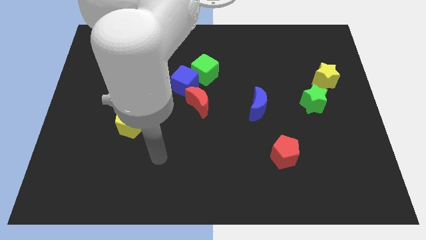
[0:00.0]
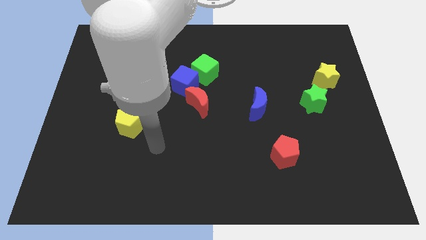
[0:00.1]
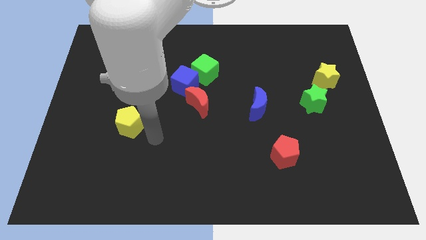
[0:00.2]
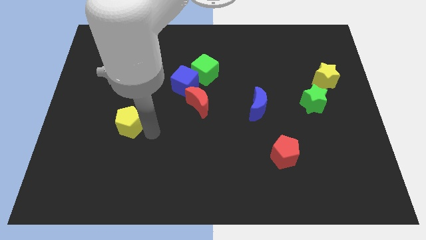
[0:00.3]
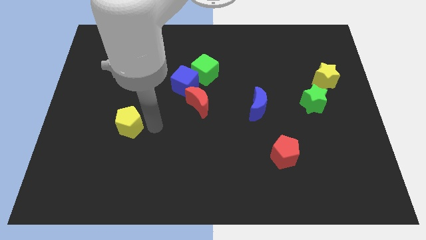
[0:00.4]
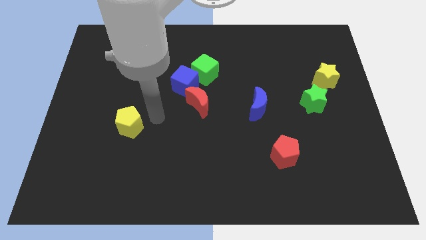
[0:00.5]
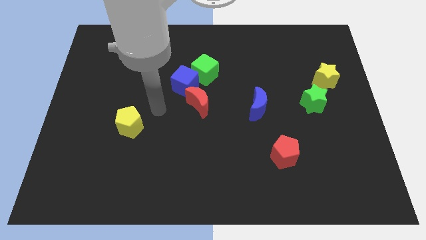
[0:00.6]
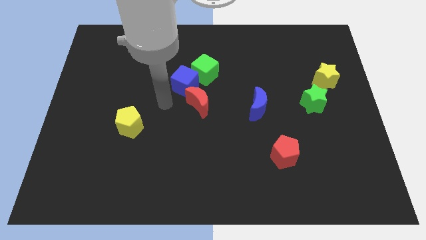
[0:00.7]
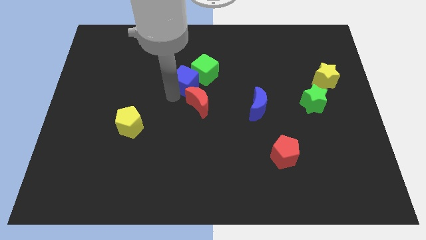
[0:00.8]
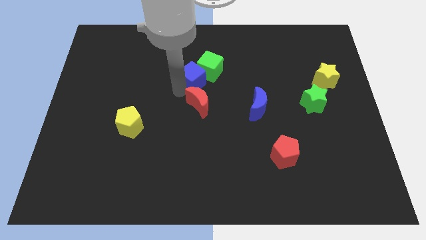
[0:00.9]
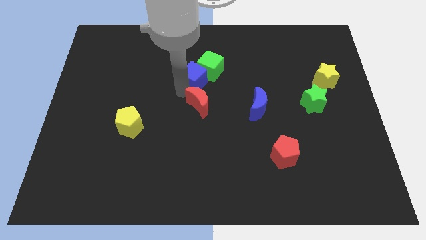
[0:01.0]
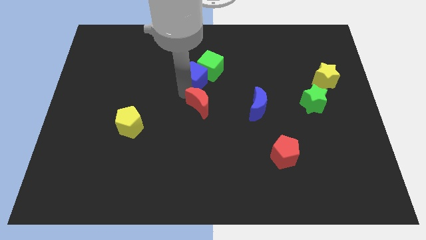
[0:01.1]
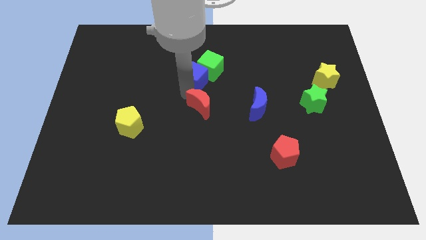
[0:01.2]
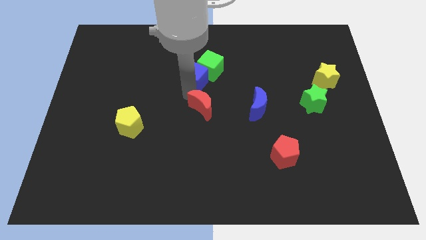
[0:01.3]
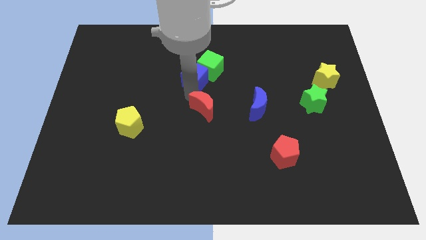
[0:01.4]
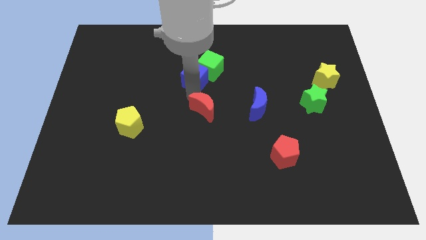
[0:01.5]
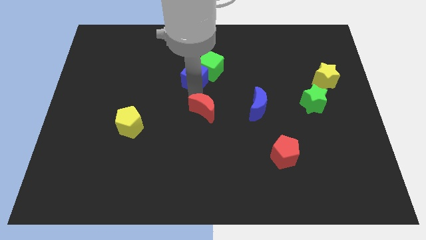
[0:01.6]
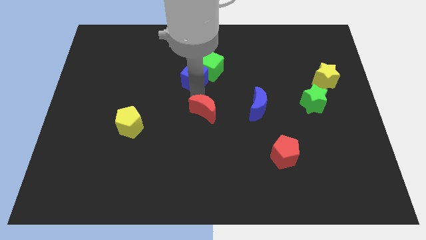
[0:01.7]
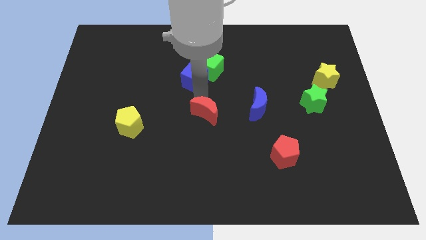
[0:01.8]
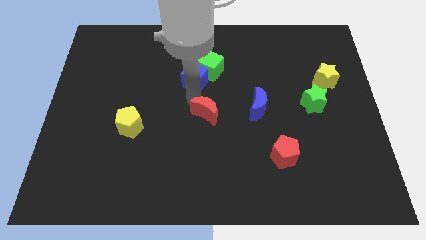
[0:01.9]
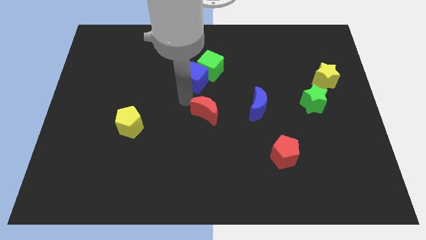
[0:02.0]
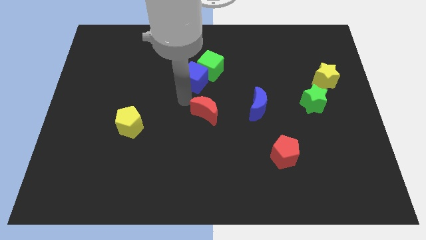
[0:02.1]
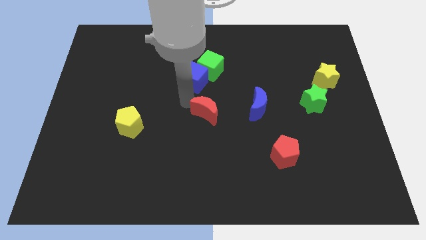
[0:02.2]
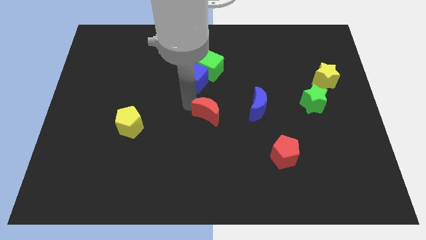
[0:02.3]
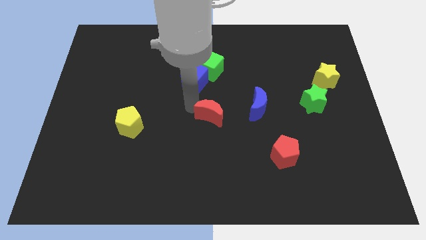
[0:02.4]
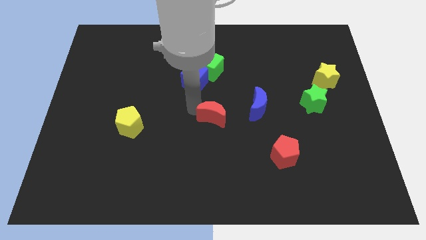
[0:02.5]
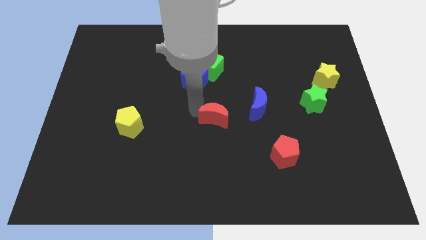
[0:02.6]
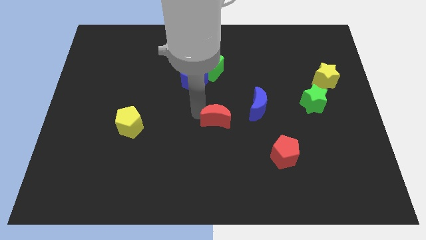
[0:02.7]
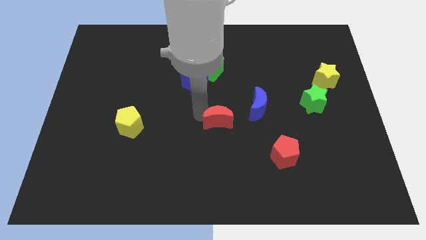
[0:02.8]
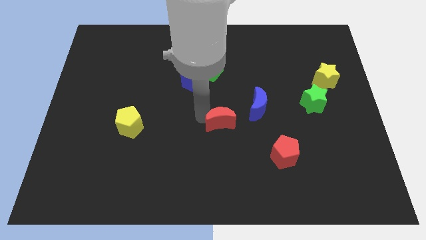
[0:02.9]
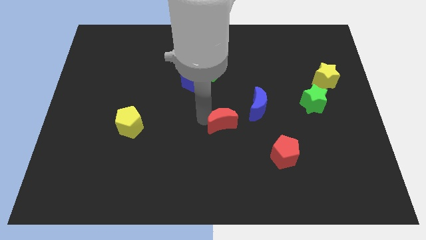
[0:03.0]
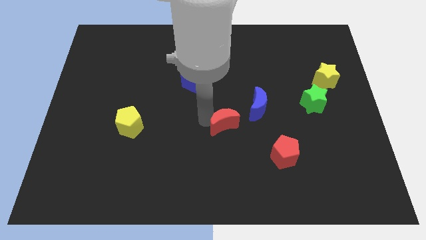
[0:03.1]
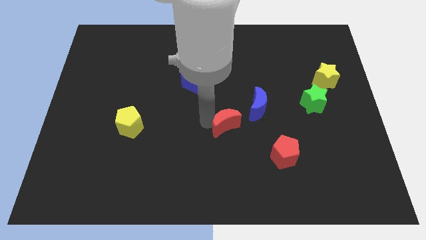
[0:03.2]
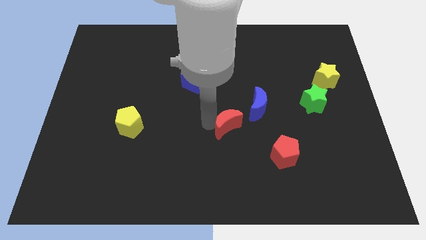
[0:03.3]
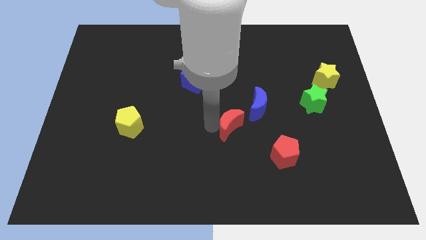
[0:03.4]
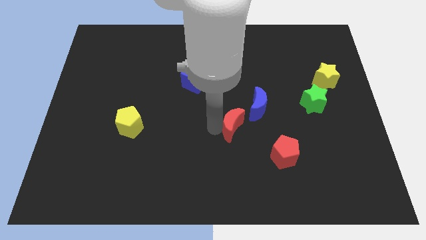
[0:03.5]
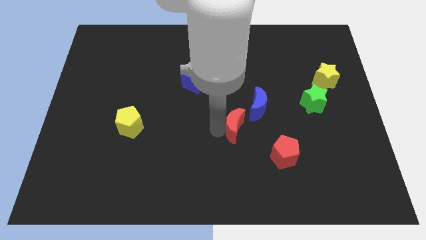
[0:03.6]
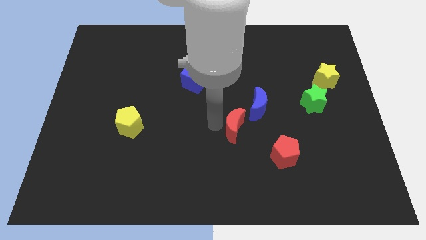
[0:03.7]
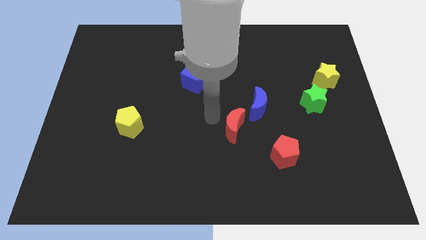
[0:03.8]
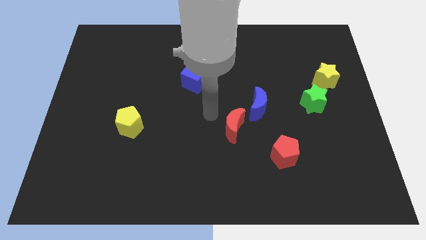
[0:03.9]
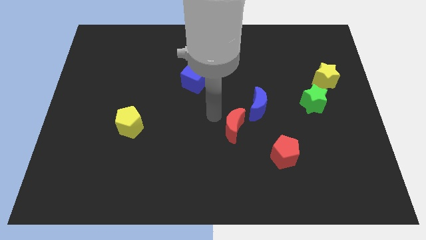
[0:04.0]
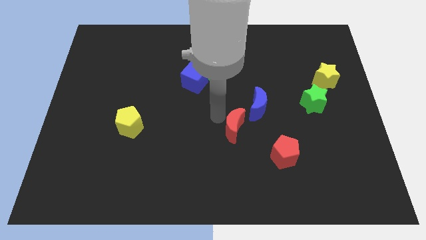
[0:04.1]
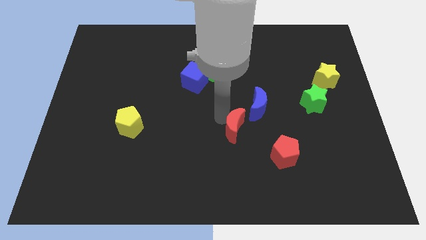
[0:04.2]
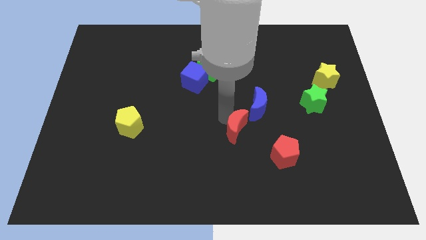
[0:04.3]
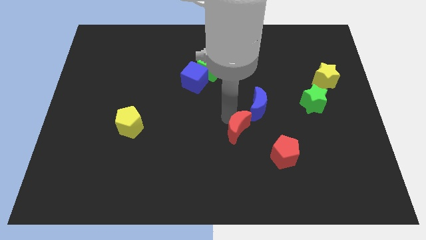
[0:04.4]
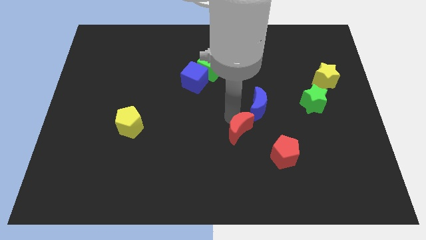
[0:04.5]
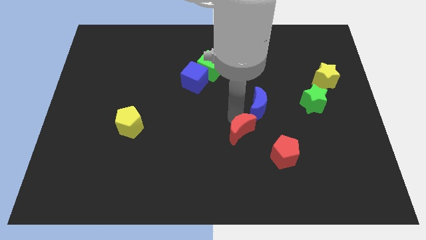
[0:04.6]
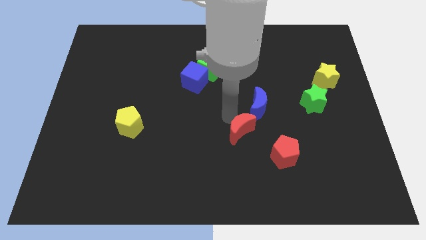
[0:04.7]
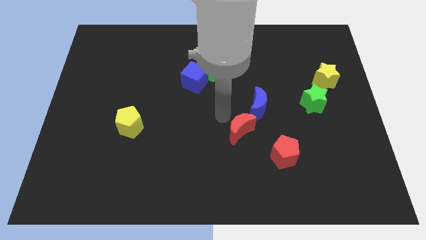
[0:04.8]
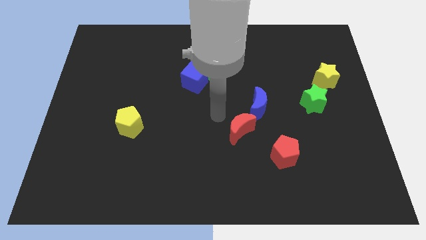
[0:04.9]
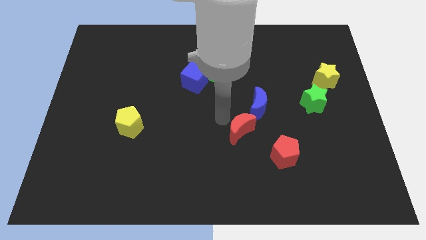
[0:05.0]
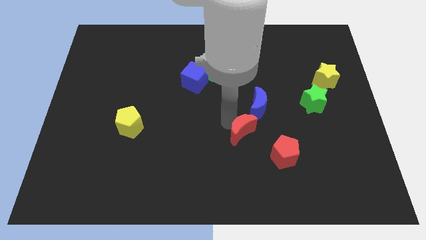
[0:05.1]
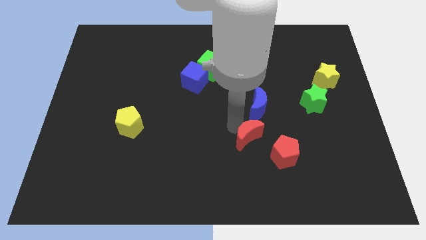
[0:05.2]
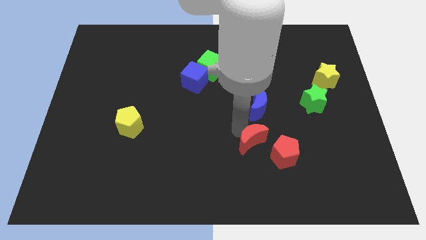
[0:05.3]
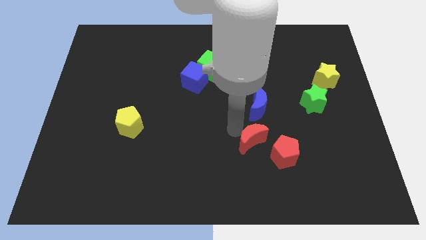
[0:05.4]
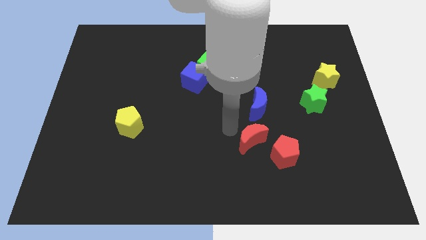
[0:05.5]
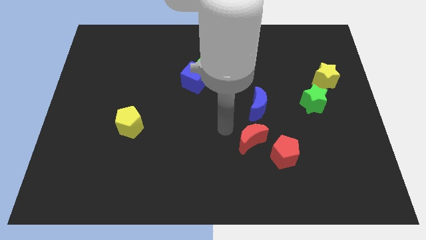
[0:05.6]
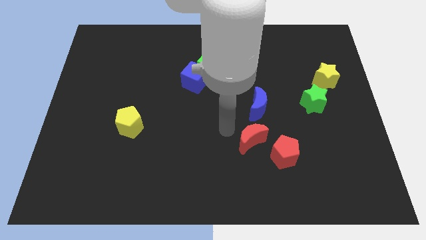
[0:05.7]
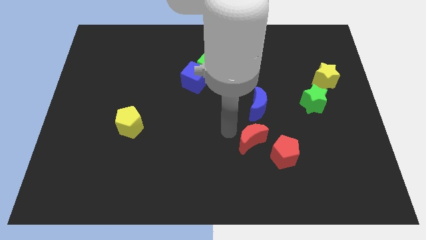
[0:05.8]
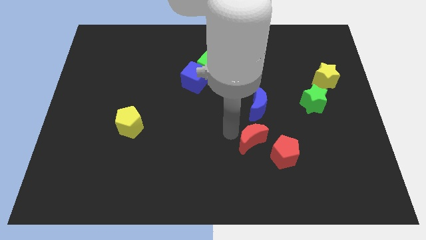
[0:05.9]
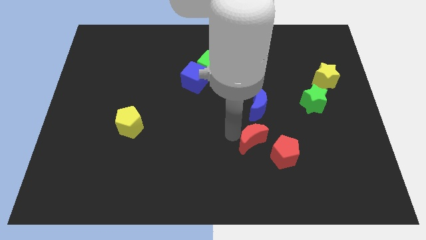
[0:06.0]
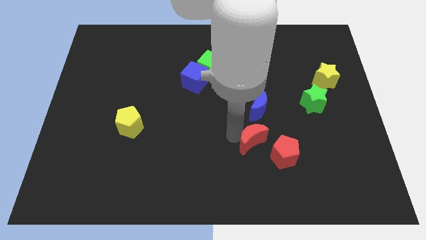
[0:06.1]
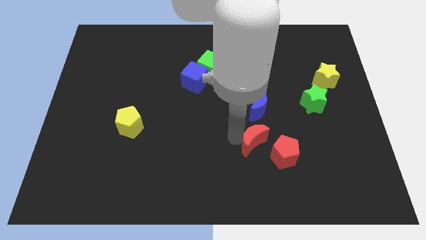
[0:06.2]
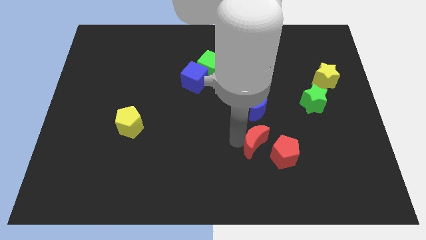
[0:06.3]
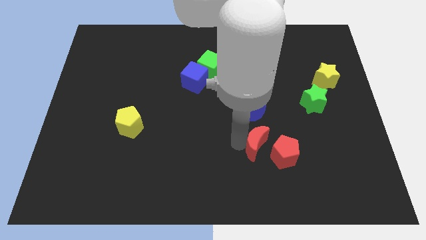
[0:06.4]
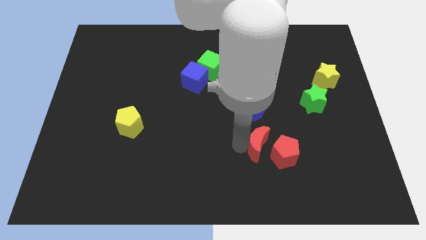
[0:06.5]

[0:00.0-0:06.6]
put the red moon towards the red pentagon

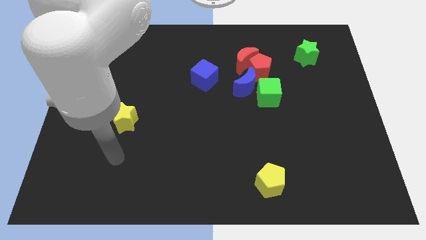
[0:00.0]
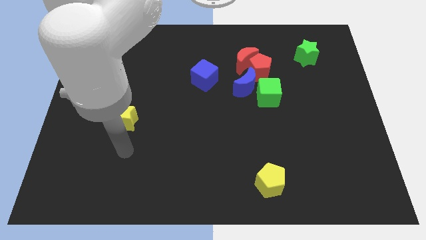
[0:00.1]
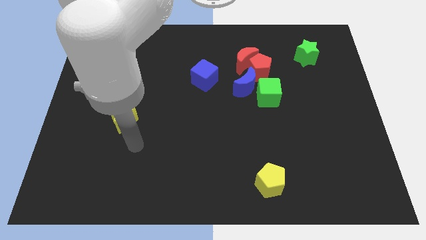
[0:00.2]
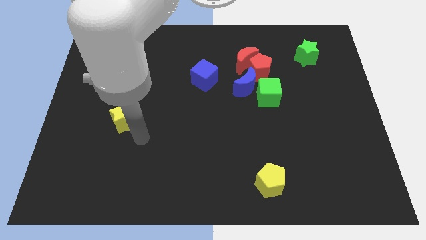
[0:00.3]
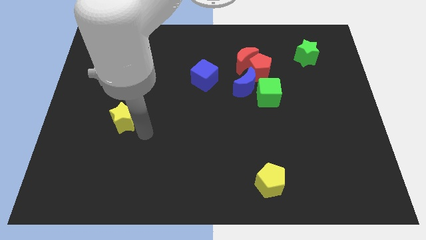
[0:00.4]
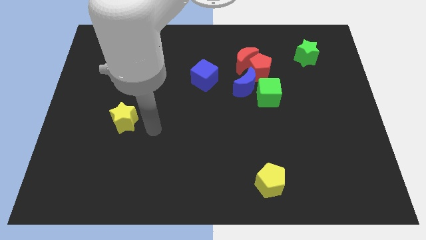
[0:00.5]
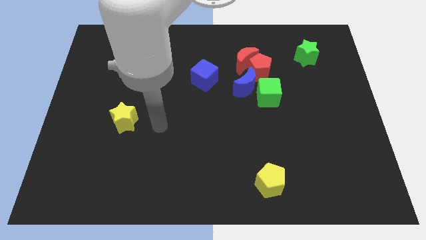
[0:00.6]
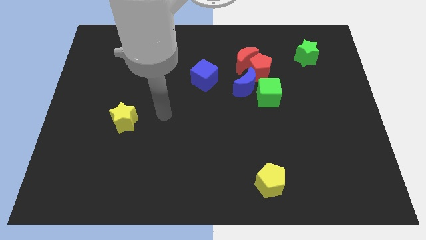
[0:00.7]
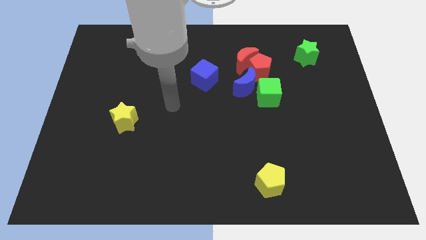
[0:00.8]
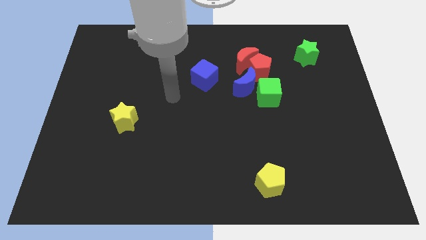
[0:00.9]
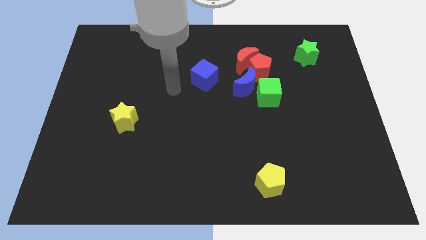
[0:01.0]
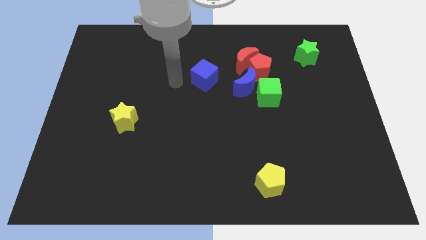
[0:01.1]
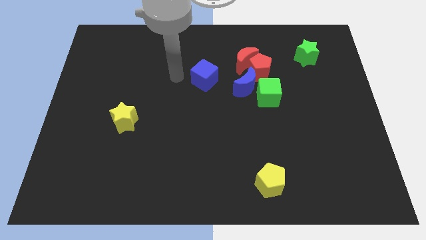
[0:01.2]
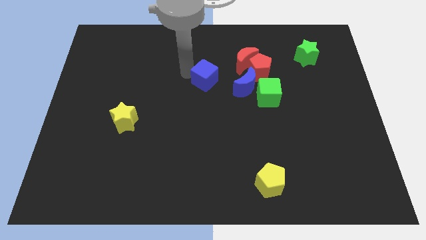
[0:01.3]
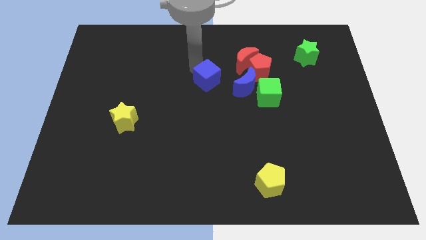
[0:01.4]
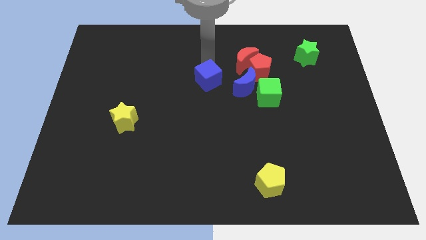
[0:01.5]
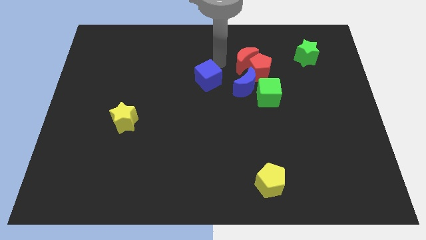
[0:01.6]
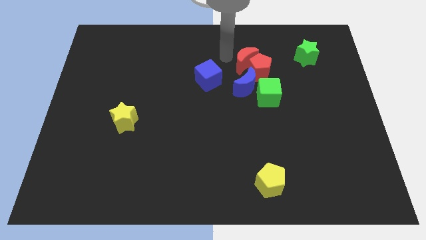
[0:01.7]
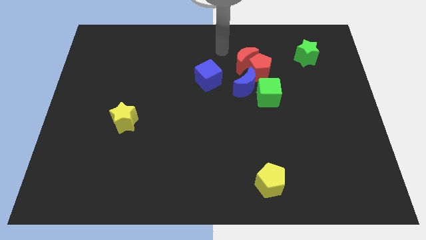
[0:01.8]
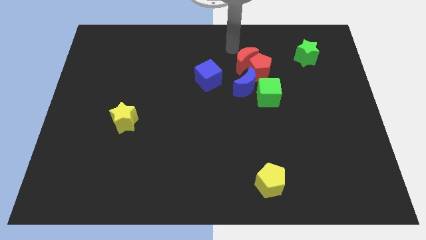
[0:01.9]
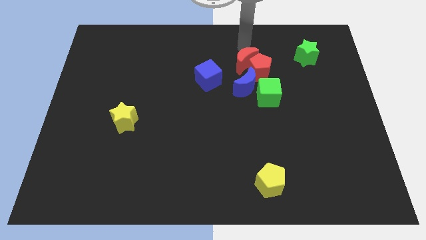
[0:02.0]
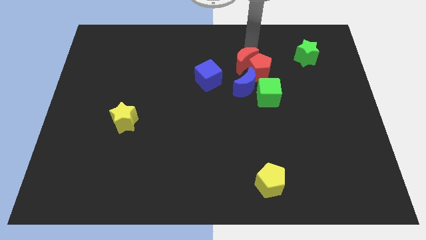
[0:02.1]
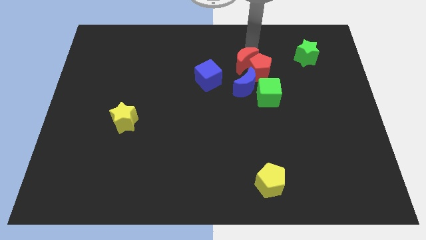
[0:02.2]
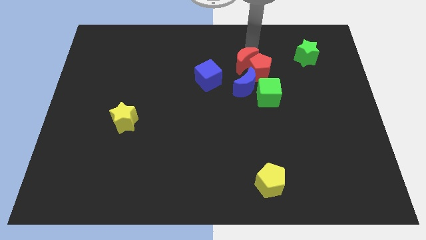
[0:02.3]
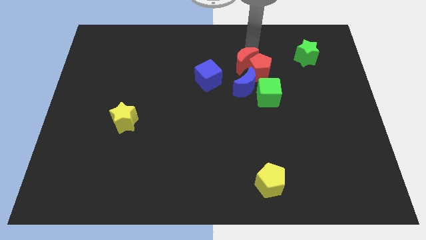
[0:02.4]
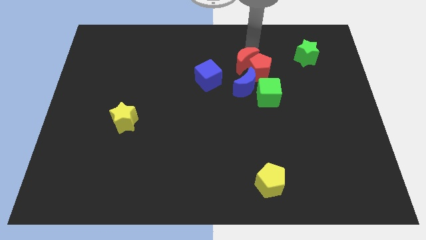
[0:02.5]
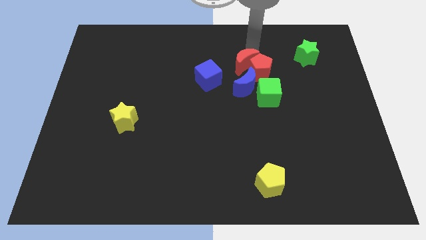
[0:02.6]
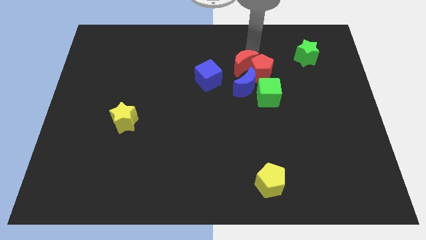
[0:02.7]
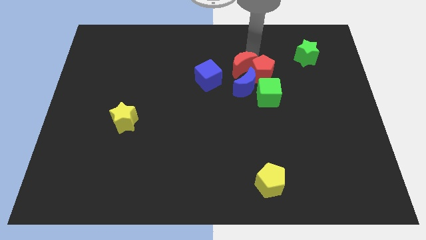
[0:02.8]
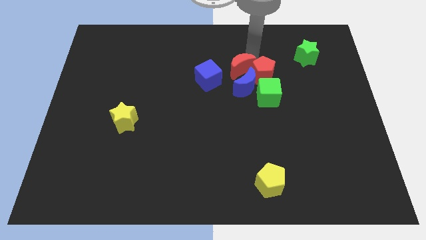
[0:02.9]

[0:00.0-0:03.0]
slide the red moon close to the blue moon
